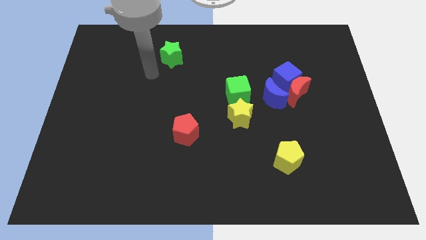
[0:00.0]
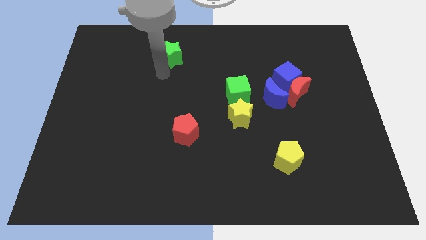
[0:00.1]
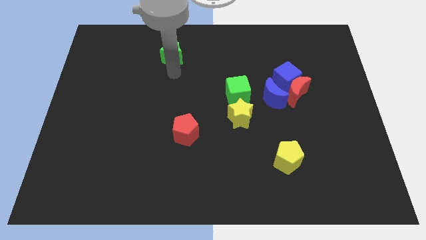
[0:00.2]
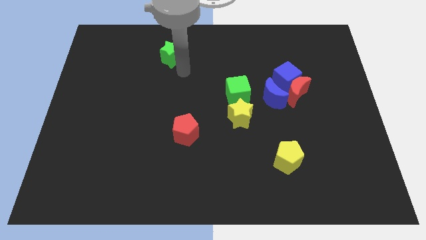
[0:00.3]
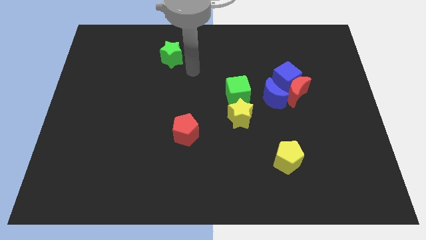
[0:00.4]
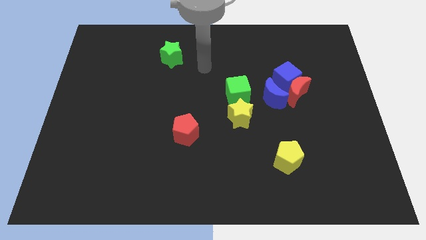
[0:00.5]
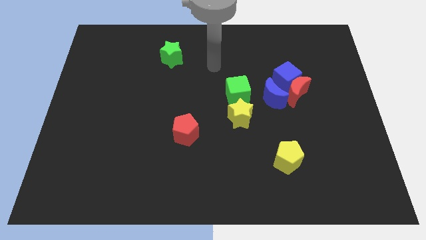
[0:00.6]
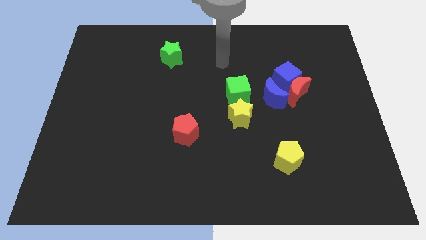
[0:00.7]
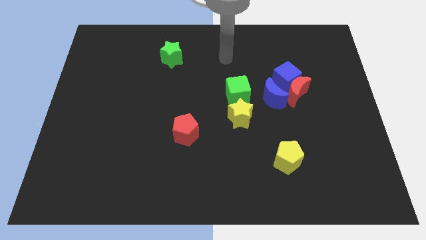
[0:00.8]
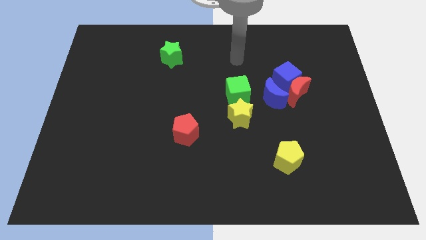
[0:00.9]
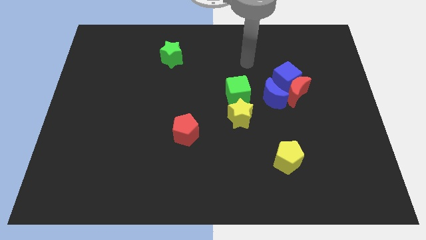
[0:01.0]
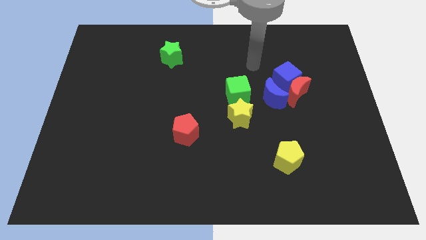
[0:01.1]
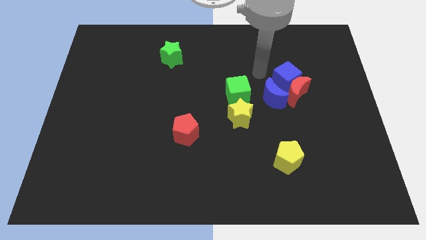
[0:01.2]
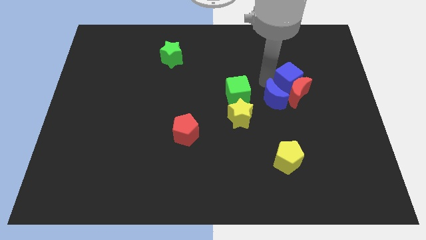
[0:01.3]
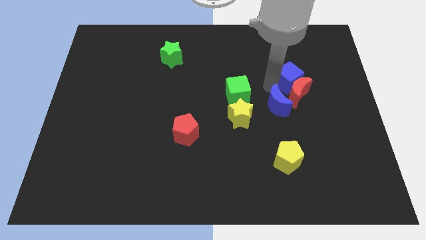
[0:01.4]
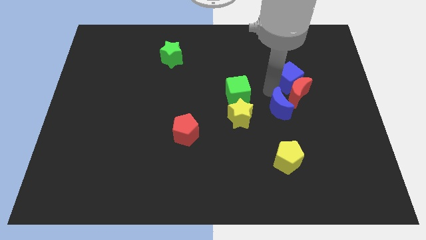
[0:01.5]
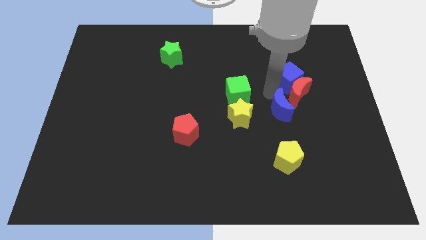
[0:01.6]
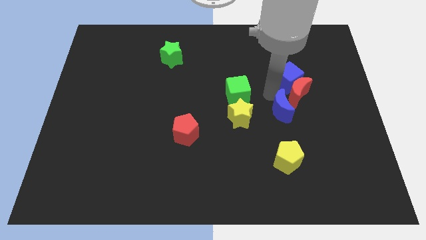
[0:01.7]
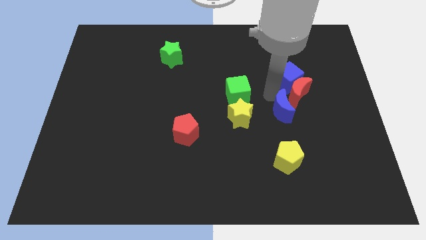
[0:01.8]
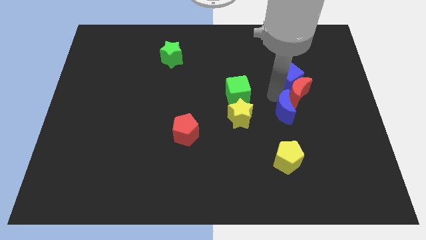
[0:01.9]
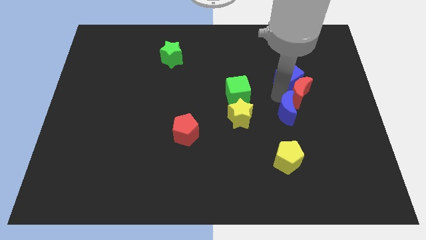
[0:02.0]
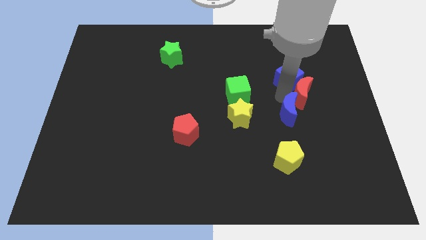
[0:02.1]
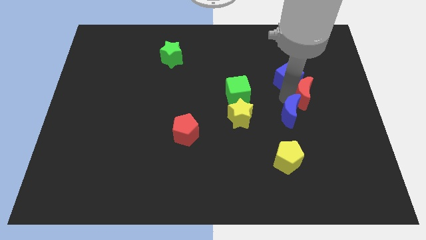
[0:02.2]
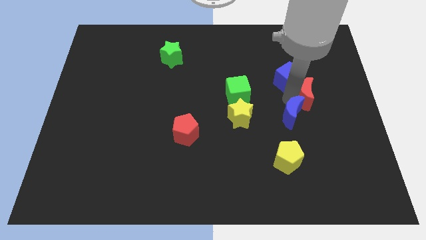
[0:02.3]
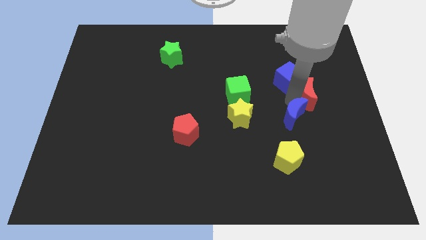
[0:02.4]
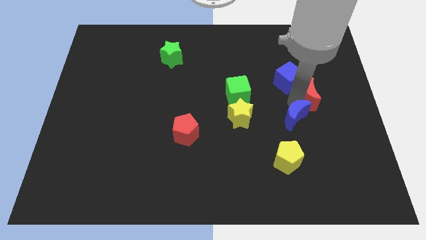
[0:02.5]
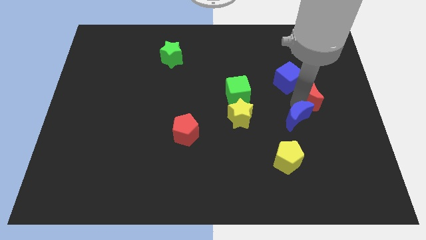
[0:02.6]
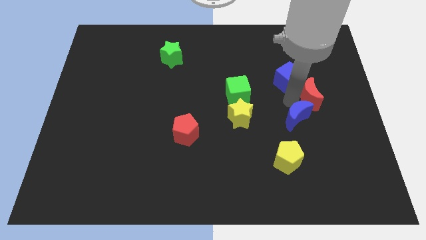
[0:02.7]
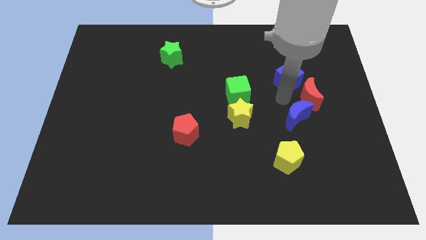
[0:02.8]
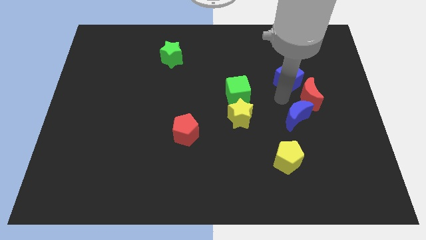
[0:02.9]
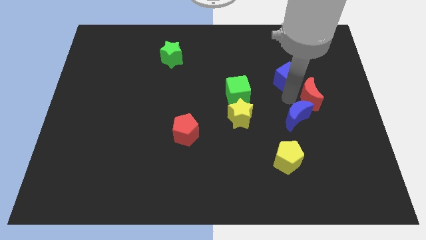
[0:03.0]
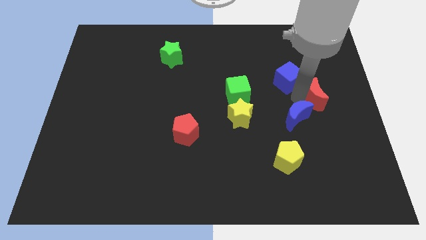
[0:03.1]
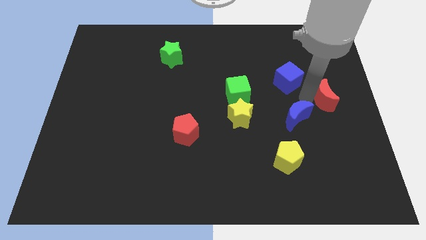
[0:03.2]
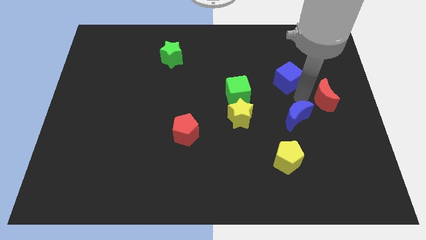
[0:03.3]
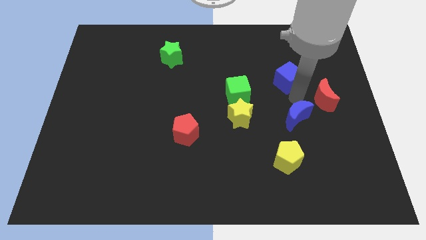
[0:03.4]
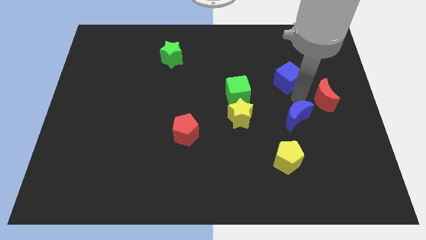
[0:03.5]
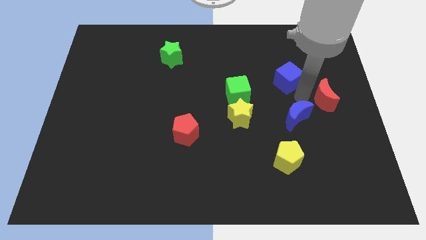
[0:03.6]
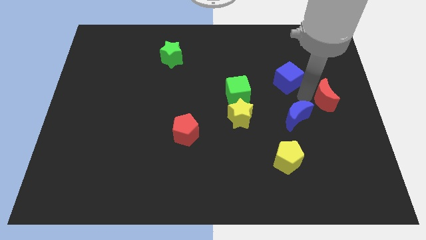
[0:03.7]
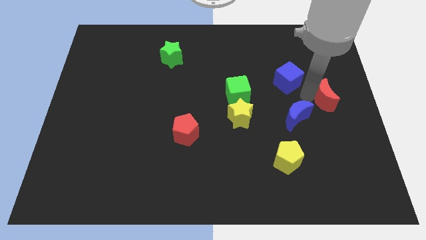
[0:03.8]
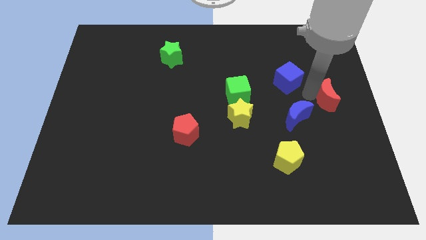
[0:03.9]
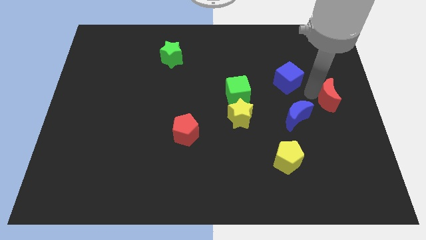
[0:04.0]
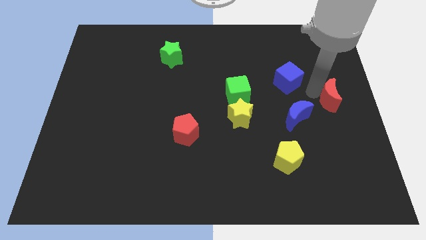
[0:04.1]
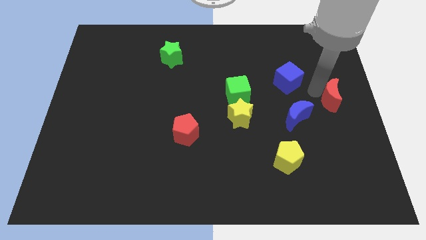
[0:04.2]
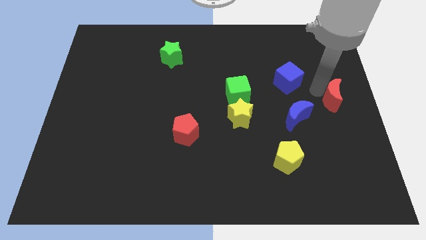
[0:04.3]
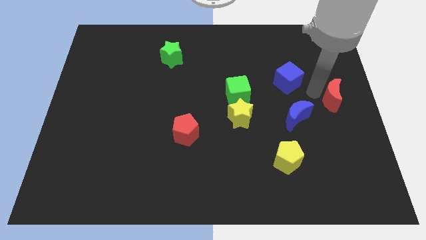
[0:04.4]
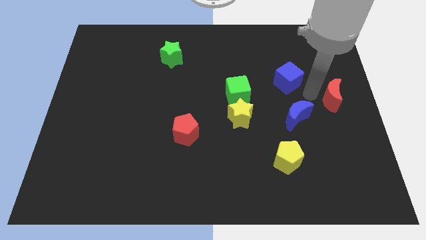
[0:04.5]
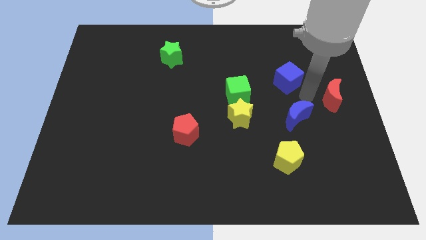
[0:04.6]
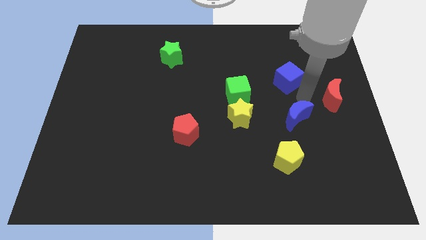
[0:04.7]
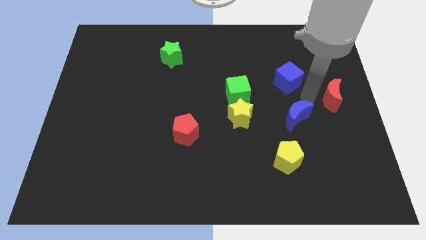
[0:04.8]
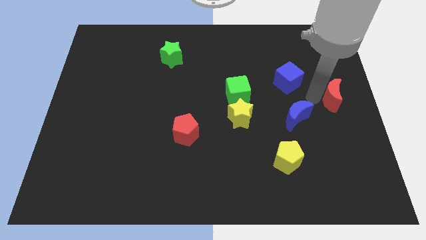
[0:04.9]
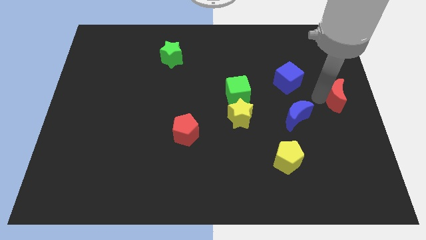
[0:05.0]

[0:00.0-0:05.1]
move the red moon away from the blue cube and blue moon

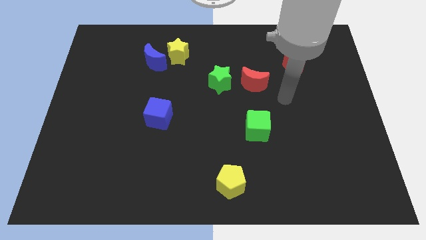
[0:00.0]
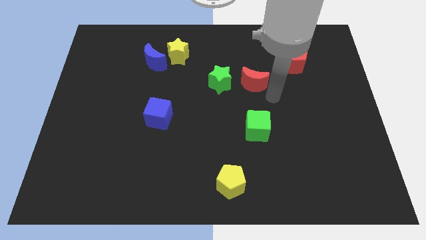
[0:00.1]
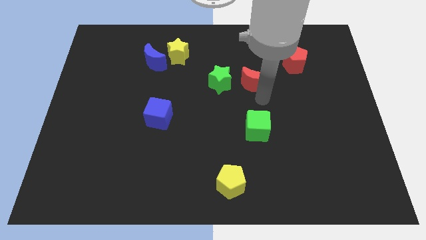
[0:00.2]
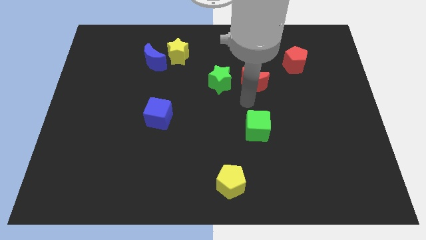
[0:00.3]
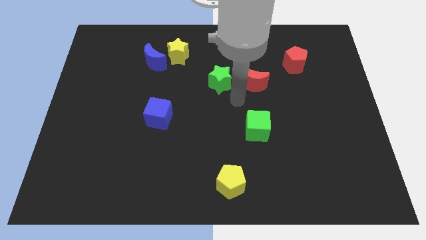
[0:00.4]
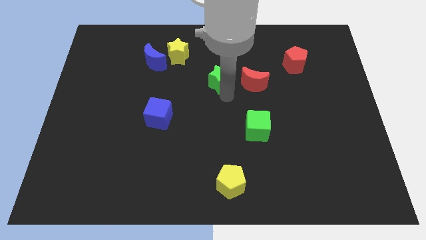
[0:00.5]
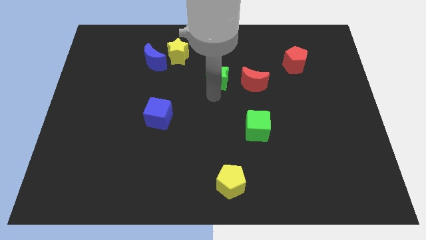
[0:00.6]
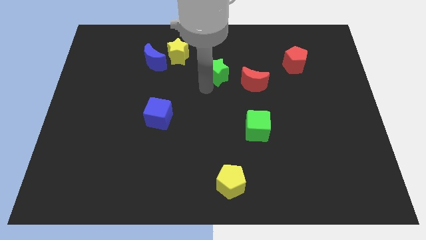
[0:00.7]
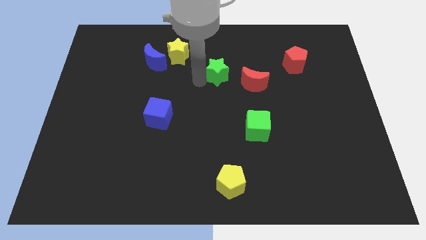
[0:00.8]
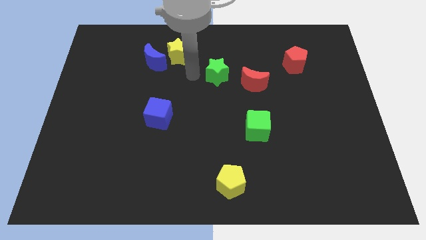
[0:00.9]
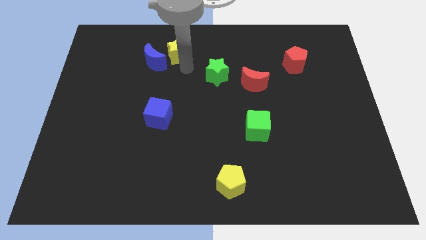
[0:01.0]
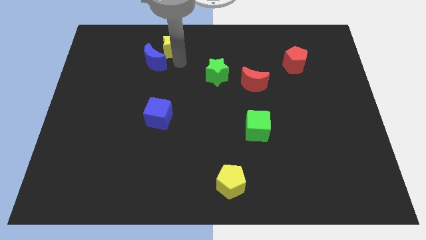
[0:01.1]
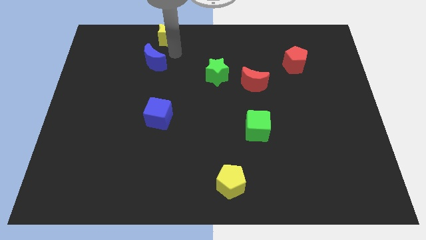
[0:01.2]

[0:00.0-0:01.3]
pull the blue moon apart from the yellow star

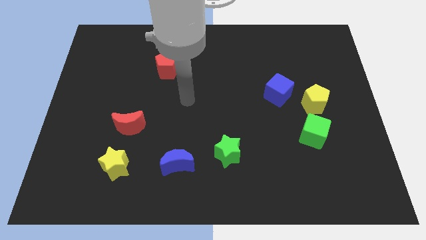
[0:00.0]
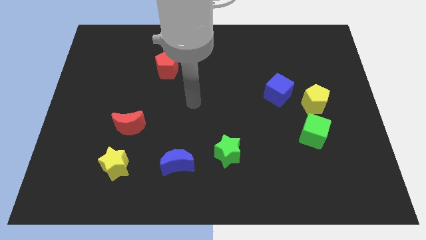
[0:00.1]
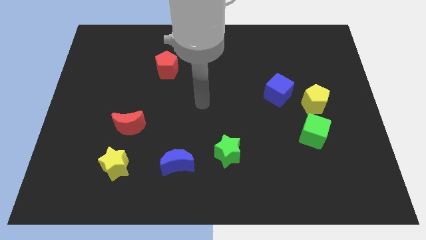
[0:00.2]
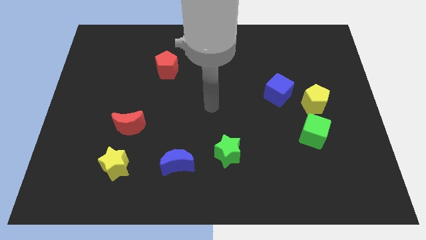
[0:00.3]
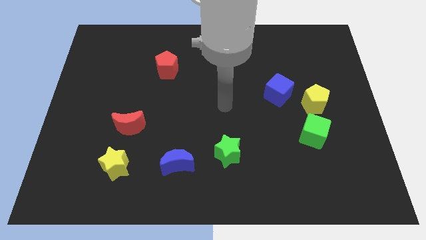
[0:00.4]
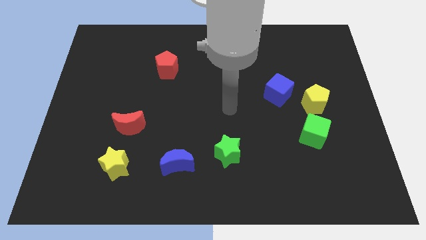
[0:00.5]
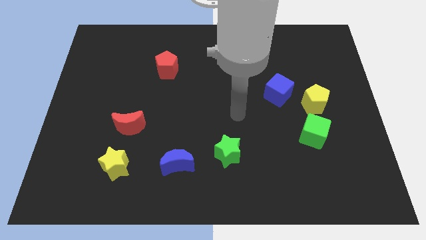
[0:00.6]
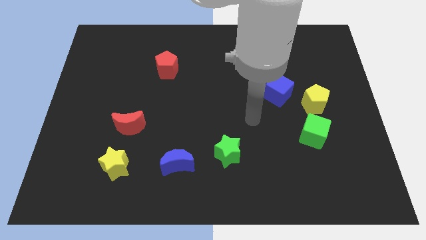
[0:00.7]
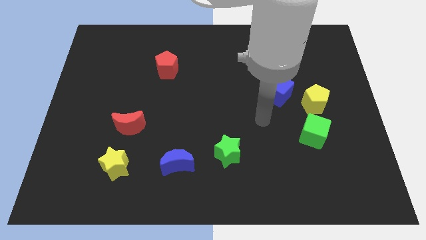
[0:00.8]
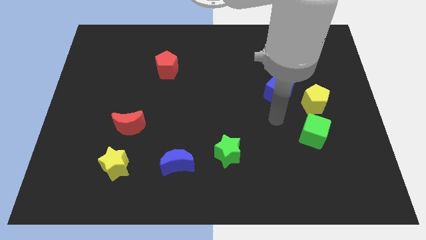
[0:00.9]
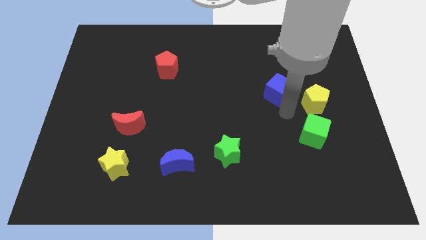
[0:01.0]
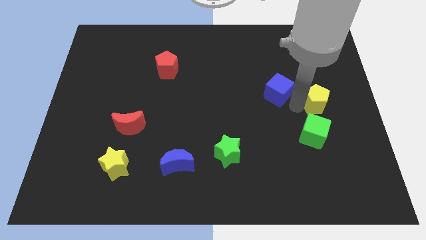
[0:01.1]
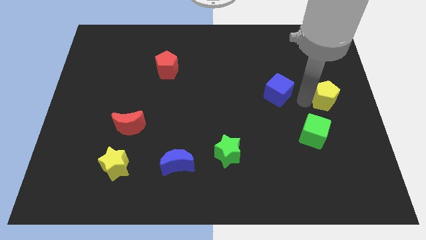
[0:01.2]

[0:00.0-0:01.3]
pull the blue cube apart from the yellow pentagon

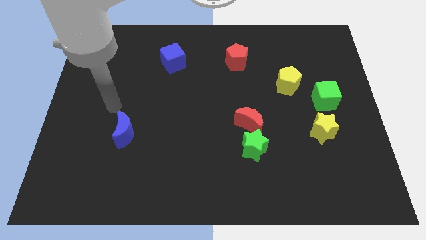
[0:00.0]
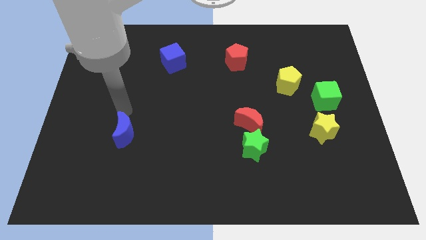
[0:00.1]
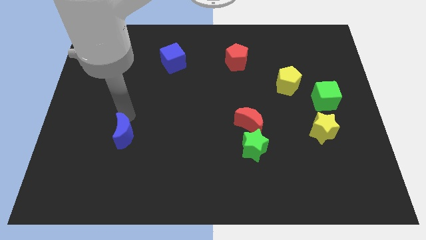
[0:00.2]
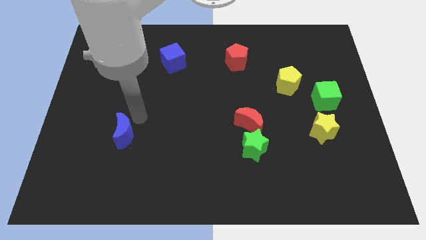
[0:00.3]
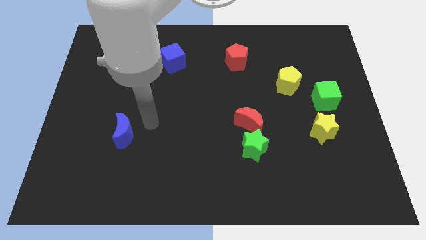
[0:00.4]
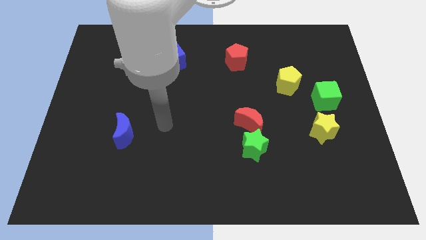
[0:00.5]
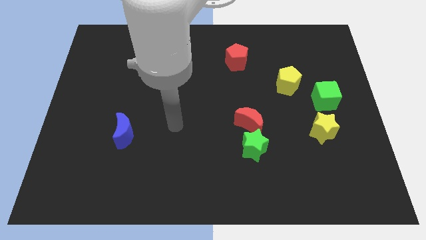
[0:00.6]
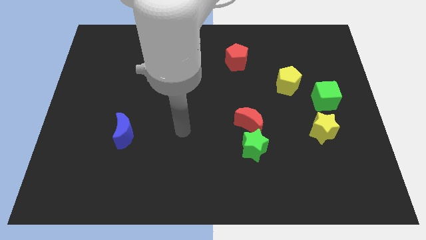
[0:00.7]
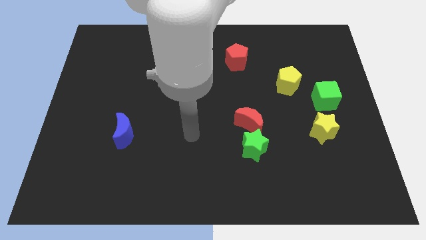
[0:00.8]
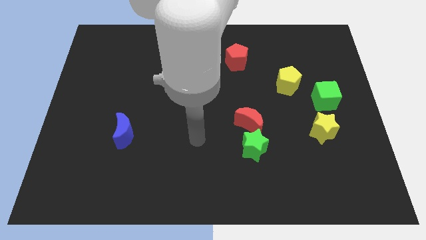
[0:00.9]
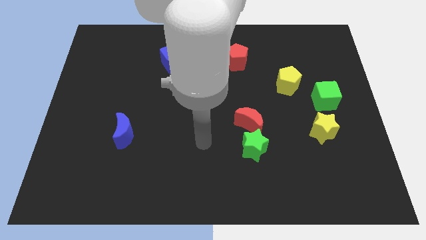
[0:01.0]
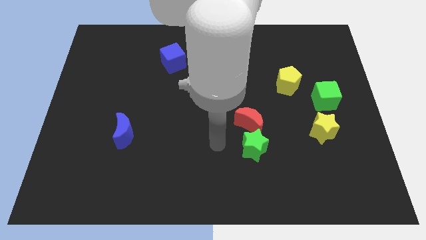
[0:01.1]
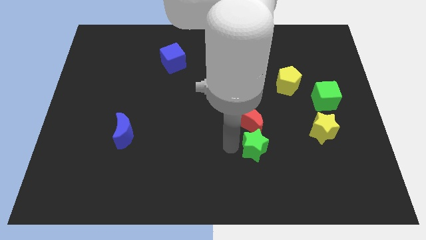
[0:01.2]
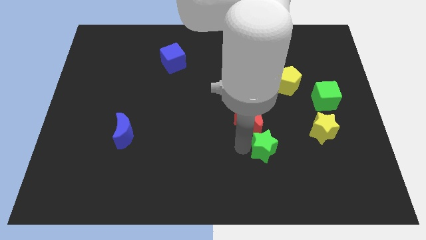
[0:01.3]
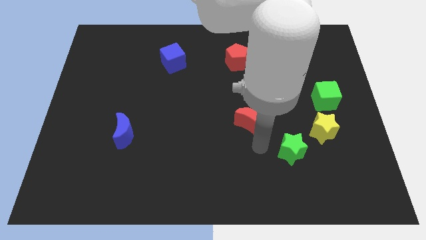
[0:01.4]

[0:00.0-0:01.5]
separate the red moon from the green star

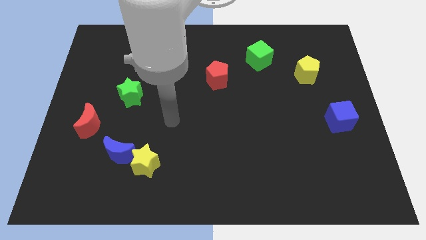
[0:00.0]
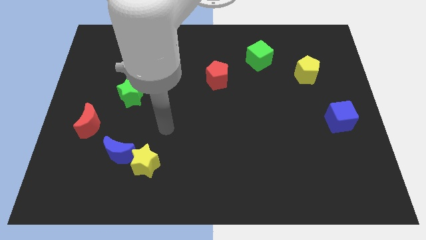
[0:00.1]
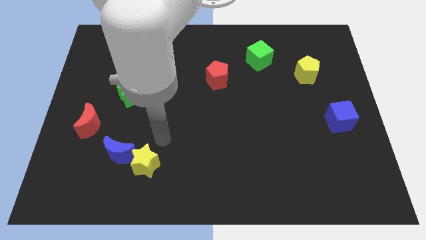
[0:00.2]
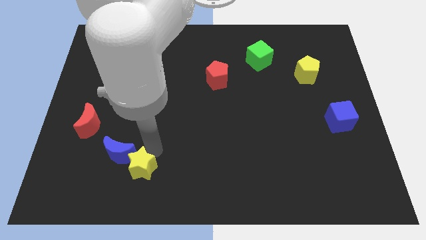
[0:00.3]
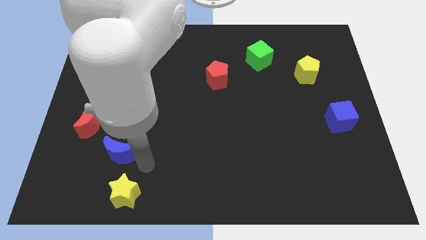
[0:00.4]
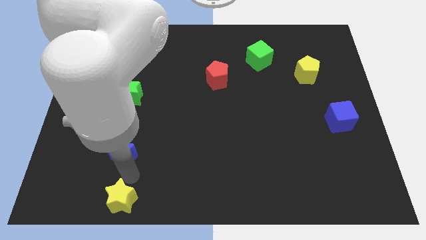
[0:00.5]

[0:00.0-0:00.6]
move the blue moon away from the yellow star
